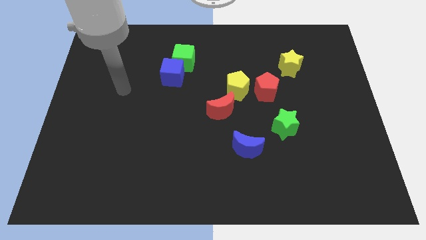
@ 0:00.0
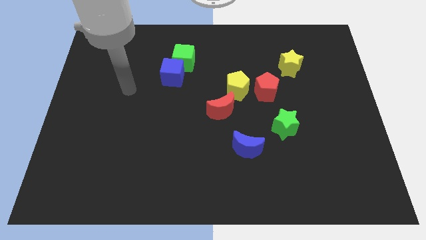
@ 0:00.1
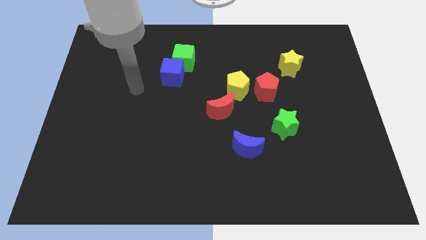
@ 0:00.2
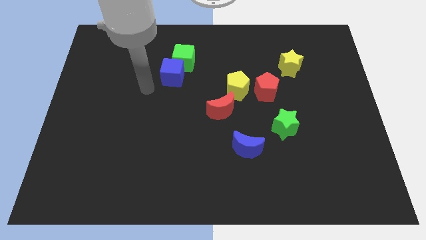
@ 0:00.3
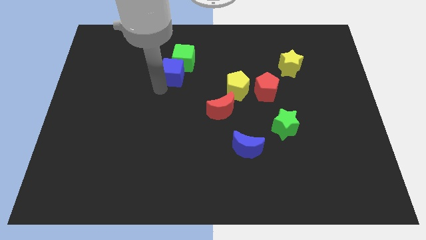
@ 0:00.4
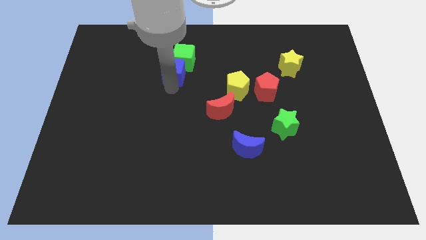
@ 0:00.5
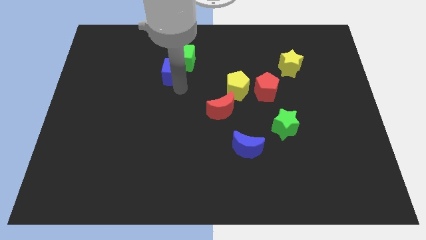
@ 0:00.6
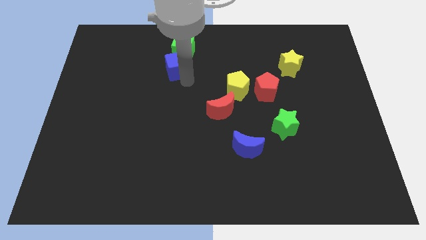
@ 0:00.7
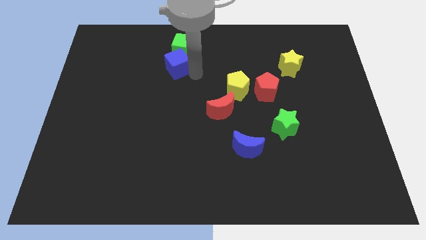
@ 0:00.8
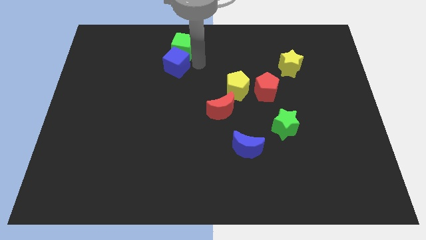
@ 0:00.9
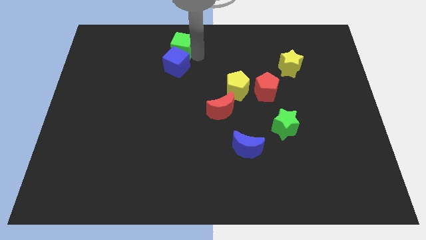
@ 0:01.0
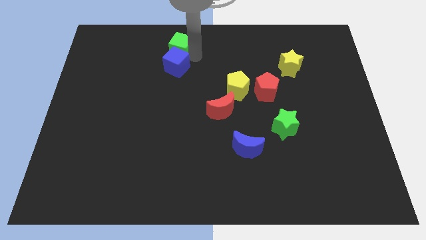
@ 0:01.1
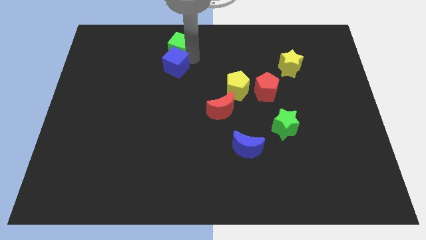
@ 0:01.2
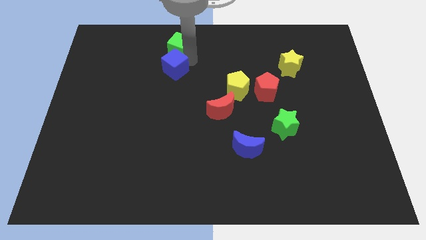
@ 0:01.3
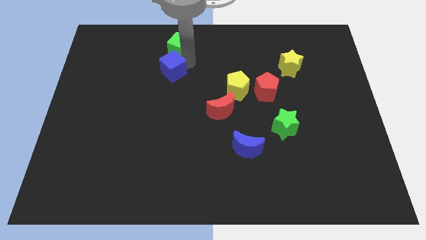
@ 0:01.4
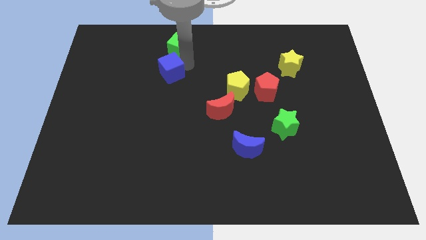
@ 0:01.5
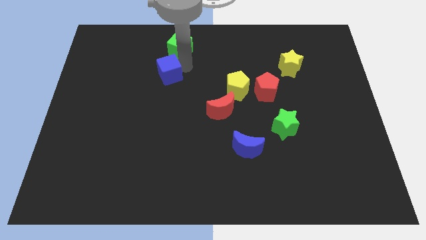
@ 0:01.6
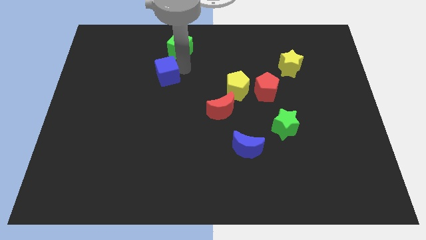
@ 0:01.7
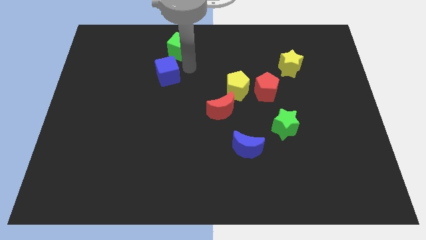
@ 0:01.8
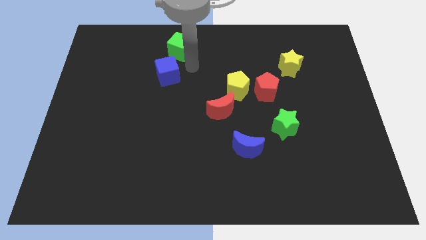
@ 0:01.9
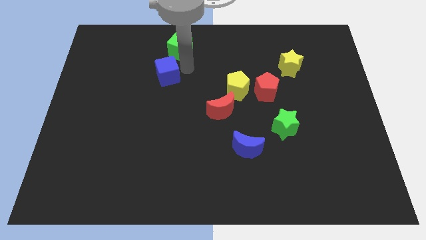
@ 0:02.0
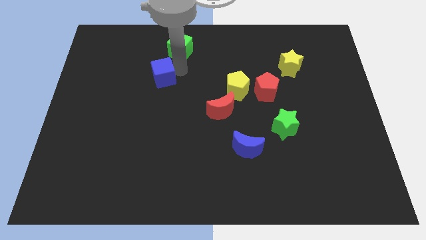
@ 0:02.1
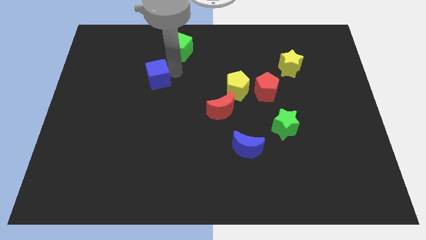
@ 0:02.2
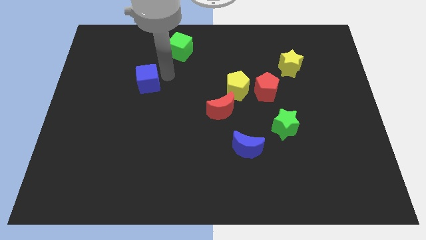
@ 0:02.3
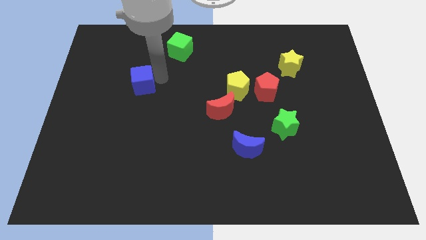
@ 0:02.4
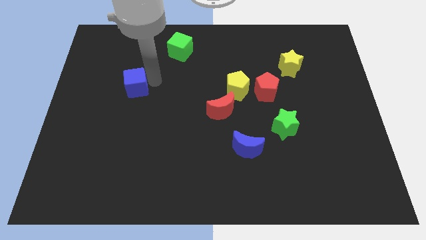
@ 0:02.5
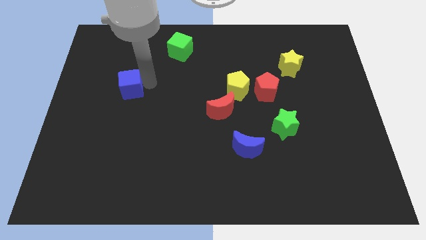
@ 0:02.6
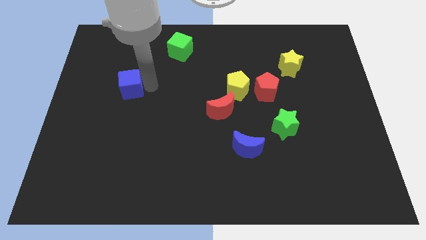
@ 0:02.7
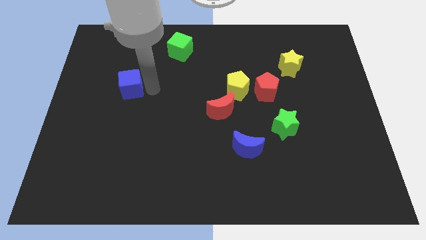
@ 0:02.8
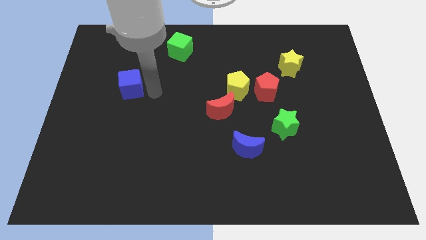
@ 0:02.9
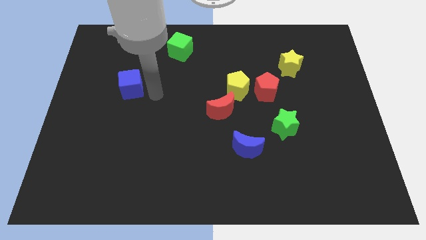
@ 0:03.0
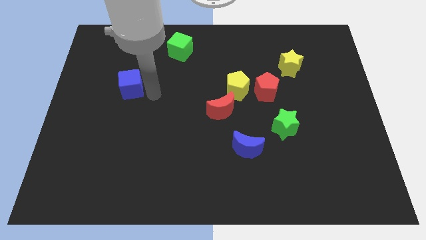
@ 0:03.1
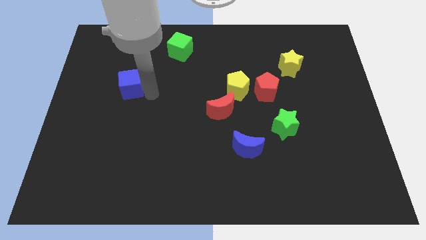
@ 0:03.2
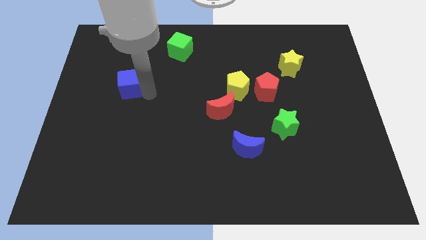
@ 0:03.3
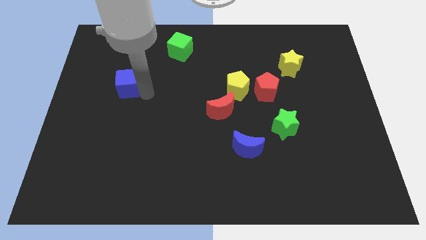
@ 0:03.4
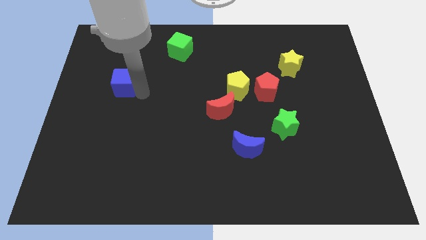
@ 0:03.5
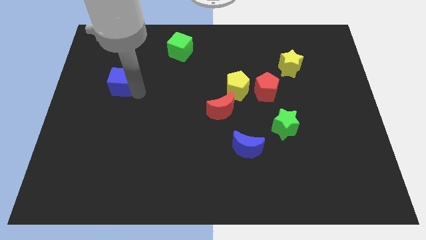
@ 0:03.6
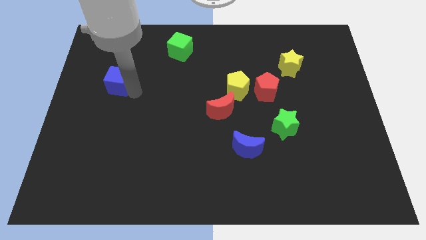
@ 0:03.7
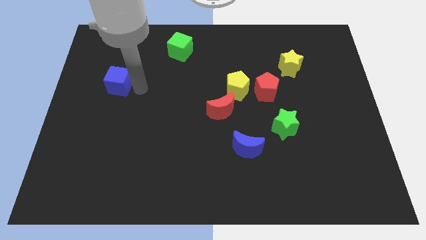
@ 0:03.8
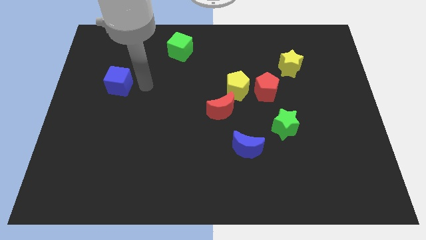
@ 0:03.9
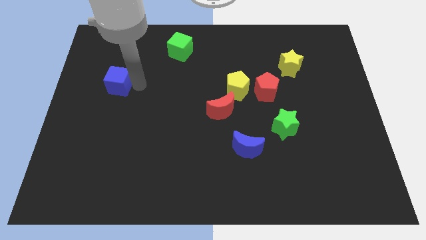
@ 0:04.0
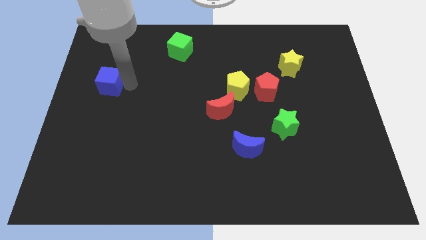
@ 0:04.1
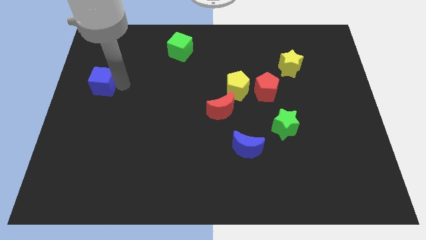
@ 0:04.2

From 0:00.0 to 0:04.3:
move the blue cube to the left side

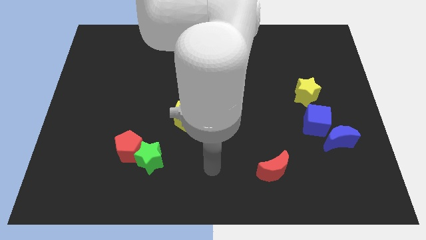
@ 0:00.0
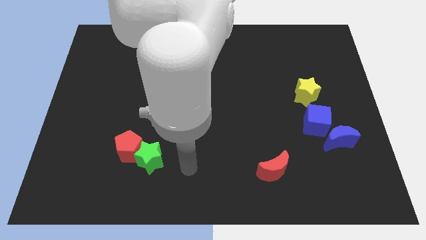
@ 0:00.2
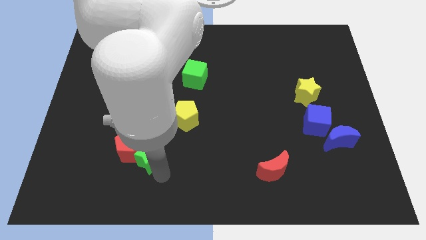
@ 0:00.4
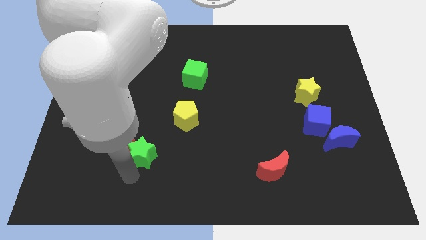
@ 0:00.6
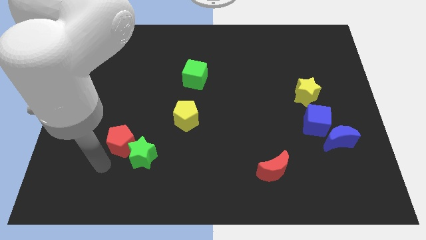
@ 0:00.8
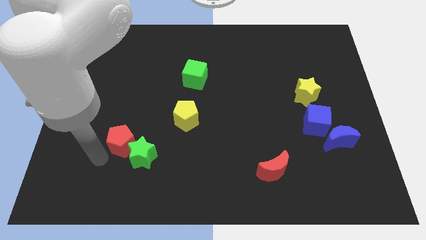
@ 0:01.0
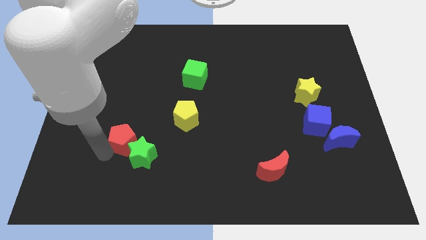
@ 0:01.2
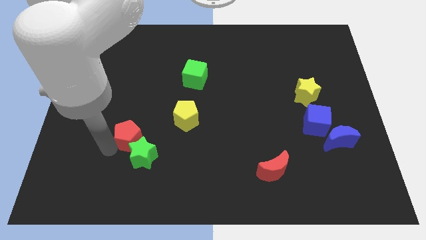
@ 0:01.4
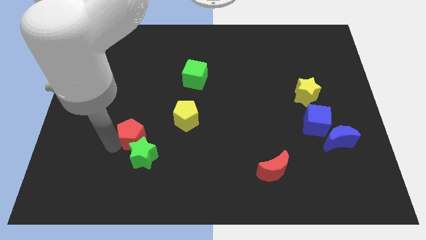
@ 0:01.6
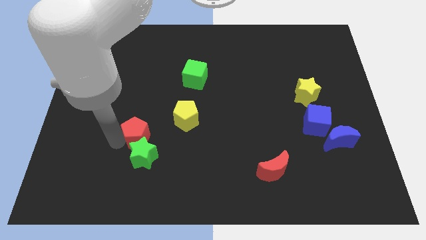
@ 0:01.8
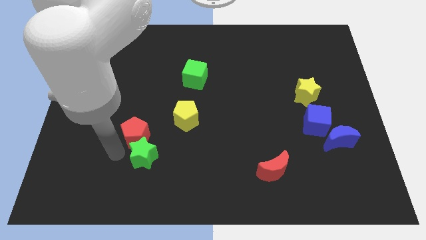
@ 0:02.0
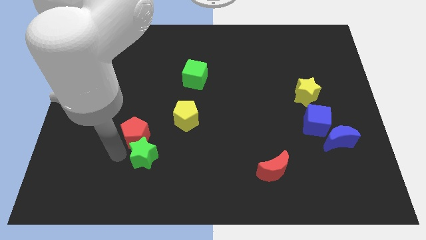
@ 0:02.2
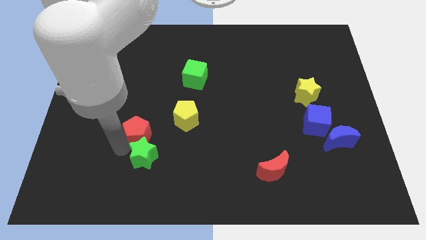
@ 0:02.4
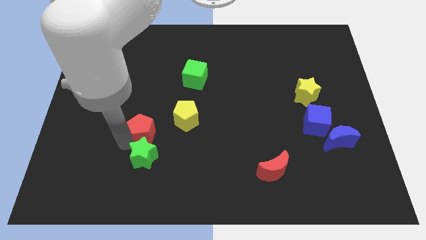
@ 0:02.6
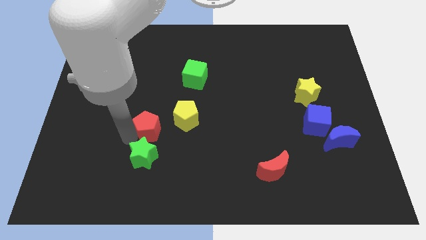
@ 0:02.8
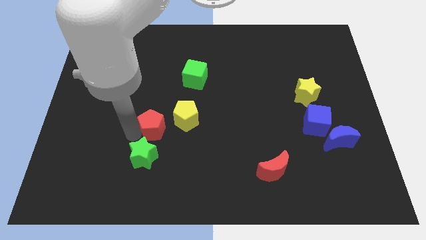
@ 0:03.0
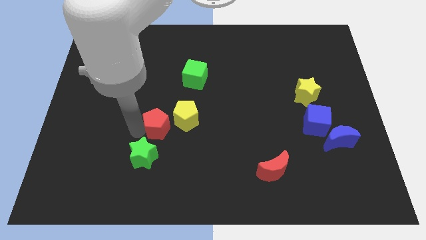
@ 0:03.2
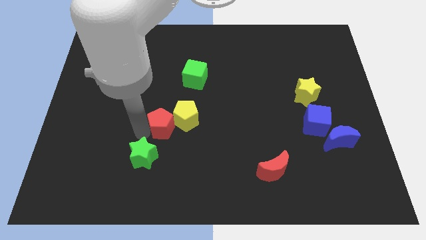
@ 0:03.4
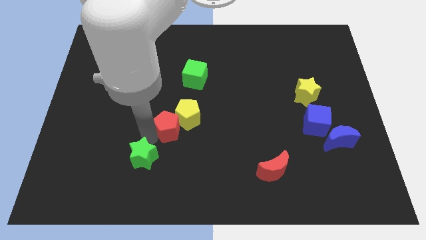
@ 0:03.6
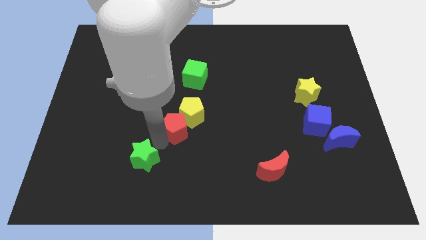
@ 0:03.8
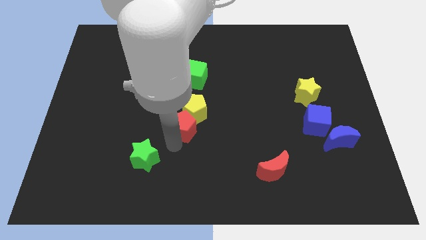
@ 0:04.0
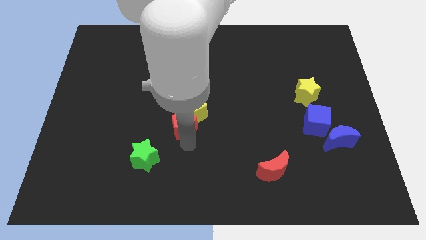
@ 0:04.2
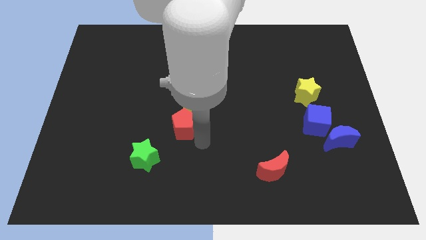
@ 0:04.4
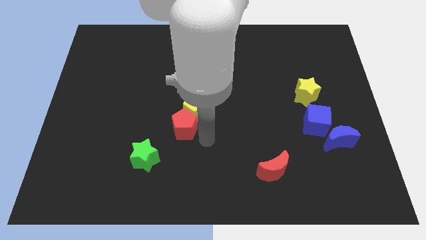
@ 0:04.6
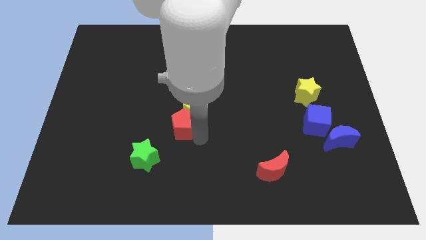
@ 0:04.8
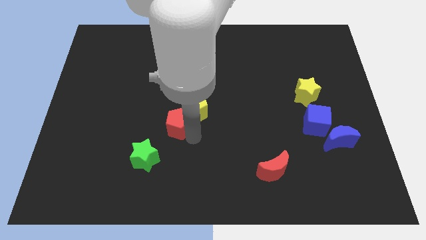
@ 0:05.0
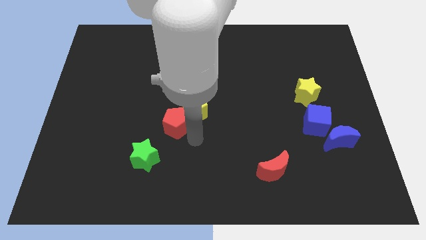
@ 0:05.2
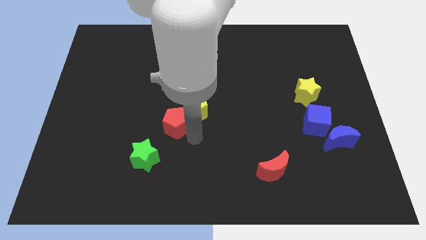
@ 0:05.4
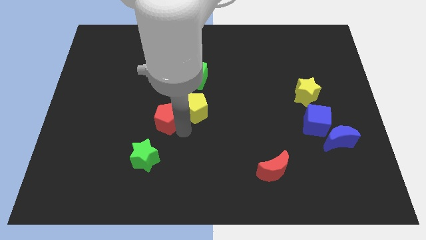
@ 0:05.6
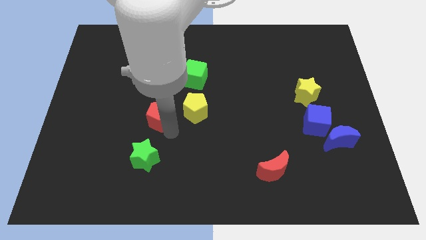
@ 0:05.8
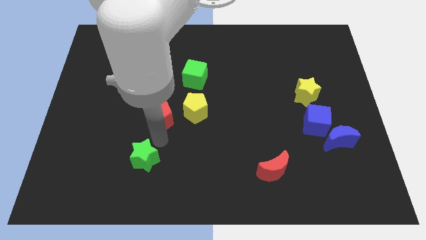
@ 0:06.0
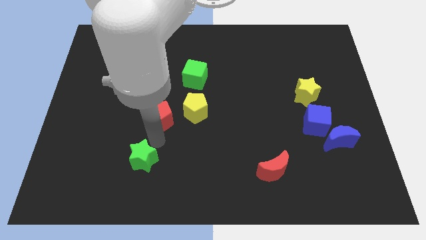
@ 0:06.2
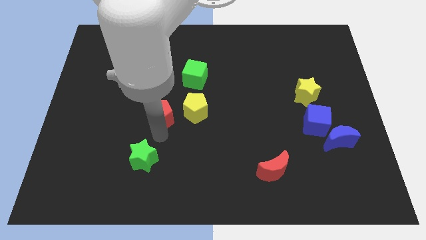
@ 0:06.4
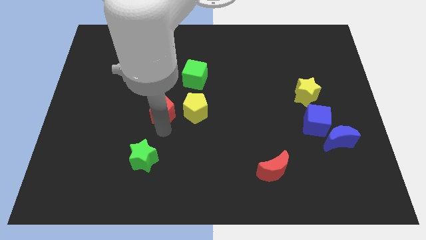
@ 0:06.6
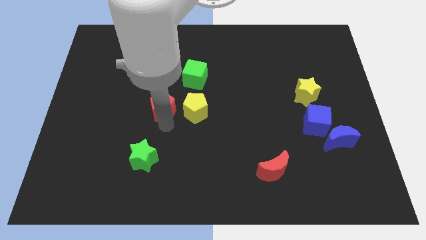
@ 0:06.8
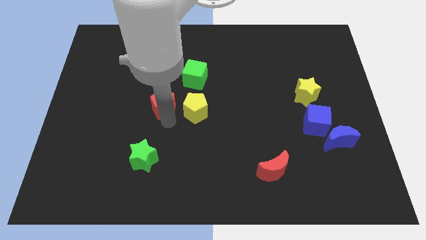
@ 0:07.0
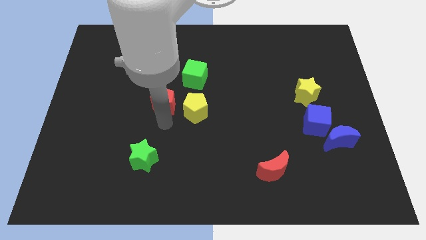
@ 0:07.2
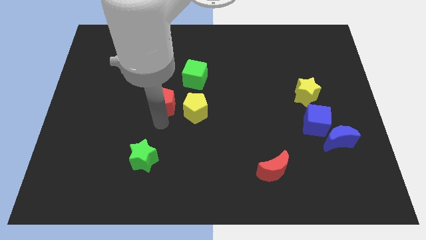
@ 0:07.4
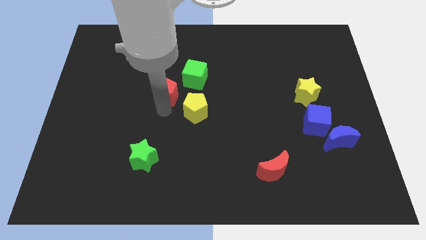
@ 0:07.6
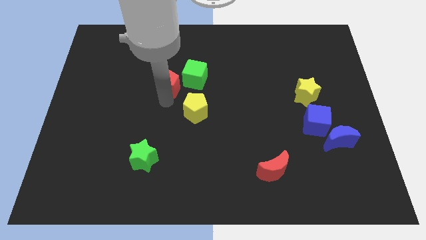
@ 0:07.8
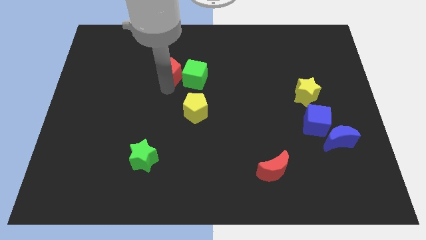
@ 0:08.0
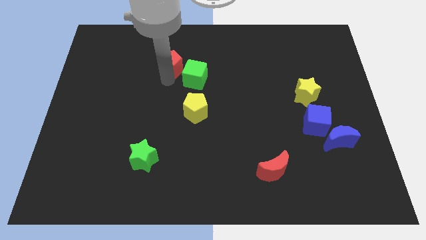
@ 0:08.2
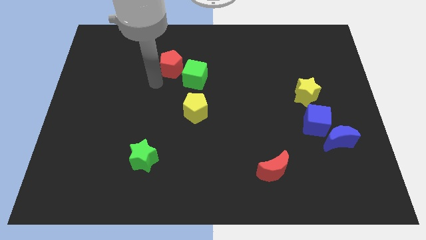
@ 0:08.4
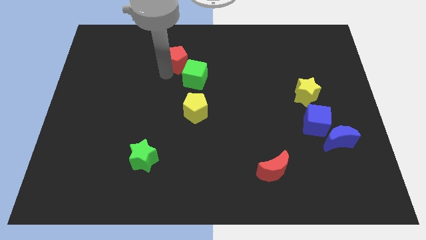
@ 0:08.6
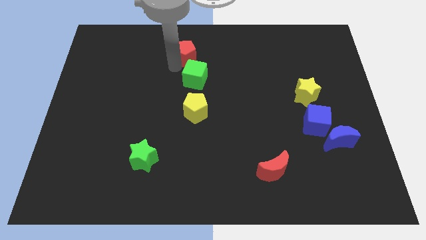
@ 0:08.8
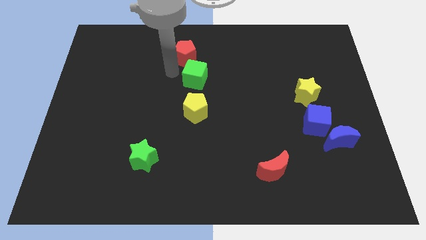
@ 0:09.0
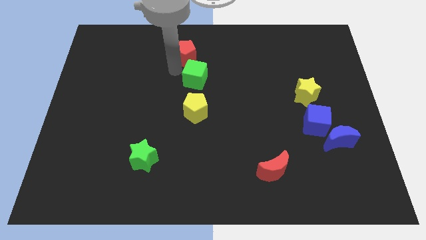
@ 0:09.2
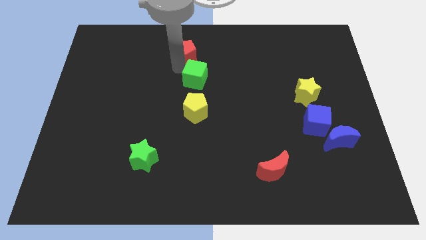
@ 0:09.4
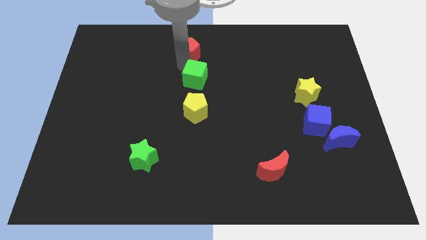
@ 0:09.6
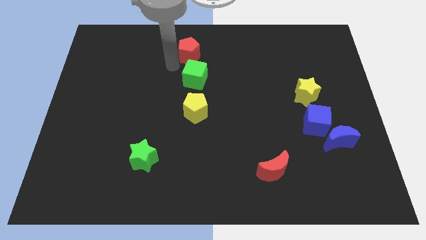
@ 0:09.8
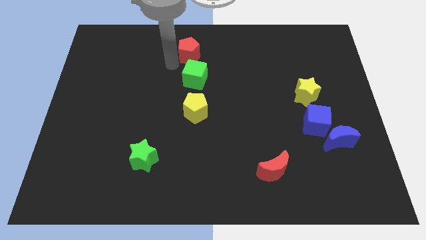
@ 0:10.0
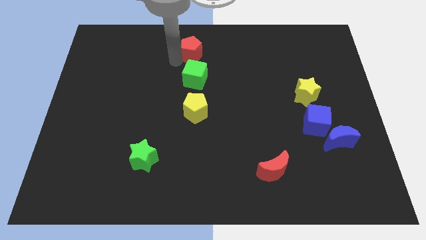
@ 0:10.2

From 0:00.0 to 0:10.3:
push the red pentagon to the towards your base
